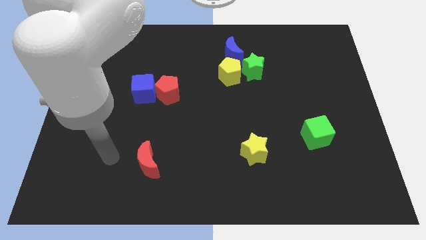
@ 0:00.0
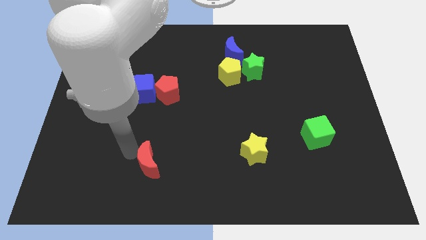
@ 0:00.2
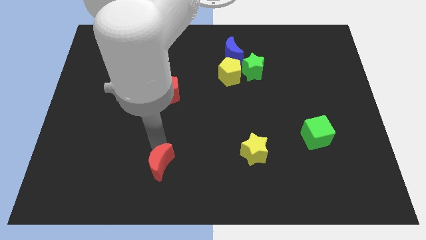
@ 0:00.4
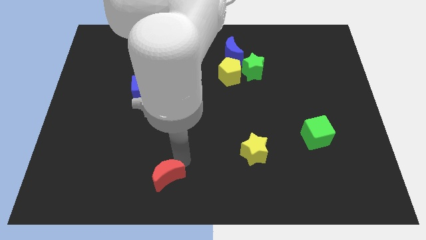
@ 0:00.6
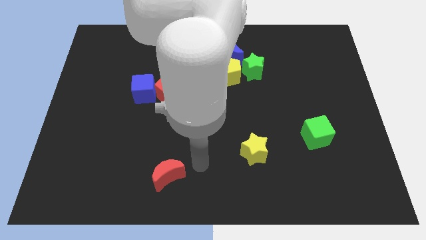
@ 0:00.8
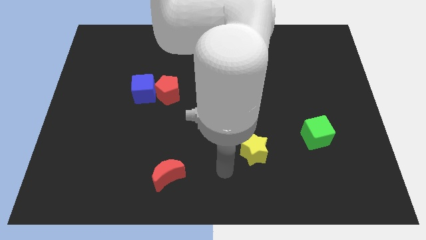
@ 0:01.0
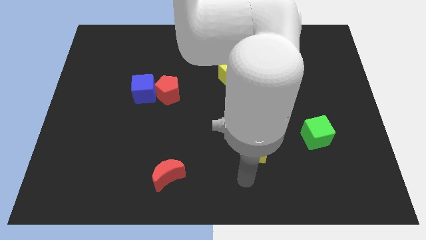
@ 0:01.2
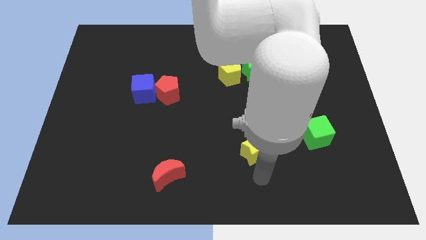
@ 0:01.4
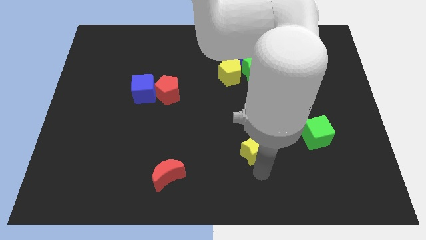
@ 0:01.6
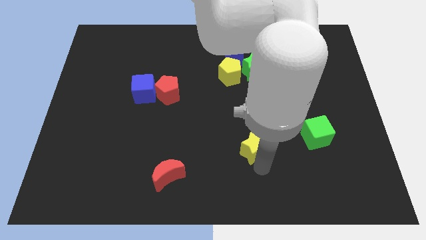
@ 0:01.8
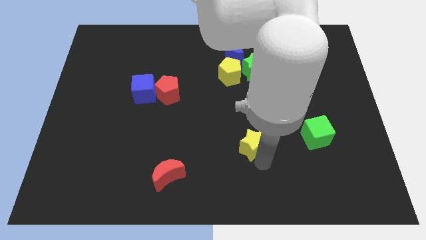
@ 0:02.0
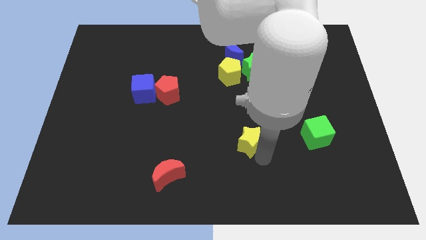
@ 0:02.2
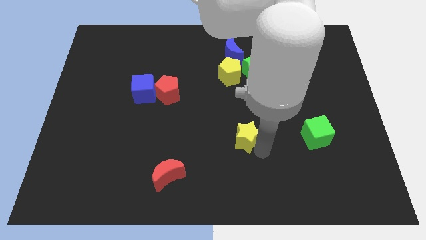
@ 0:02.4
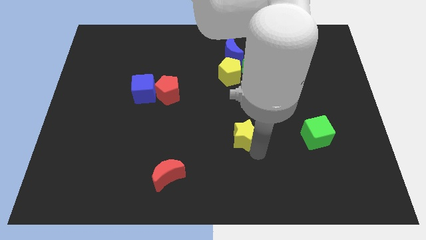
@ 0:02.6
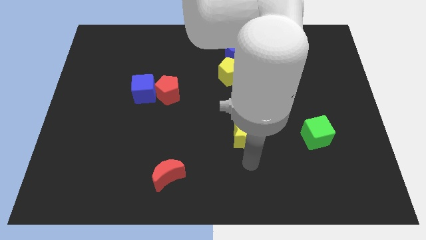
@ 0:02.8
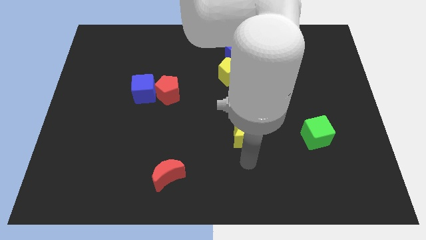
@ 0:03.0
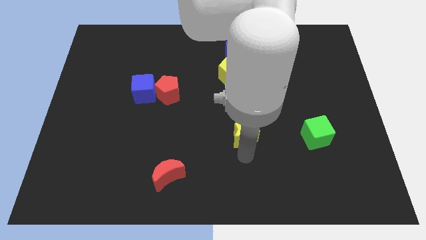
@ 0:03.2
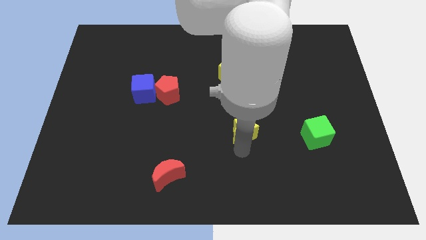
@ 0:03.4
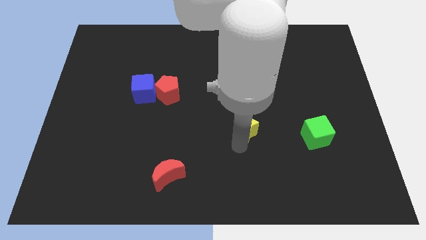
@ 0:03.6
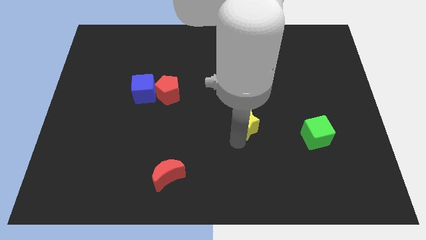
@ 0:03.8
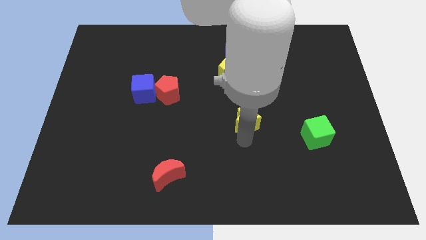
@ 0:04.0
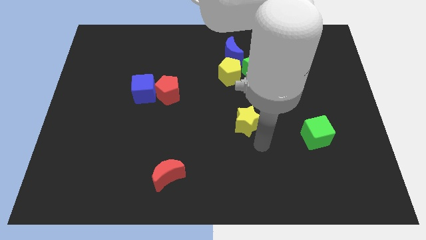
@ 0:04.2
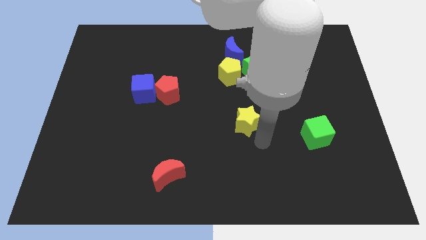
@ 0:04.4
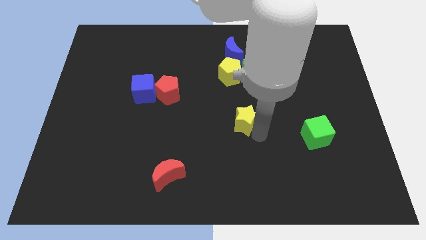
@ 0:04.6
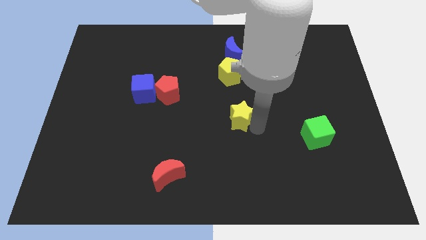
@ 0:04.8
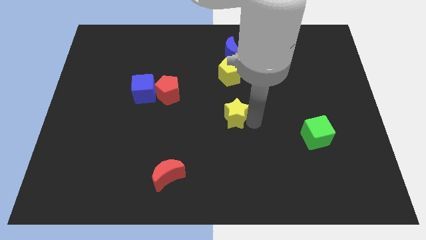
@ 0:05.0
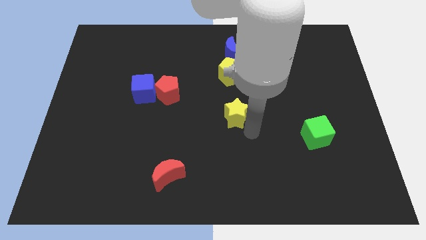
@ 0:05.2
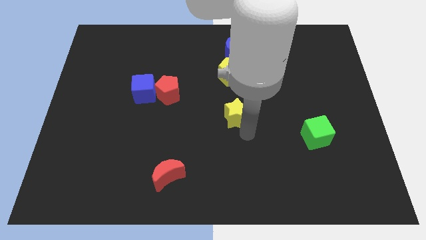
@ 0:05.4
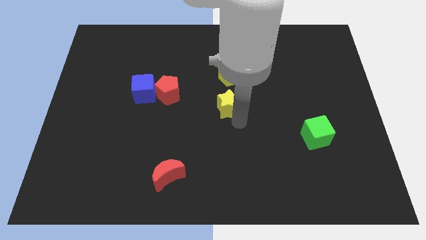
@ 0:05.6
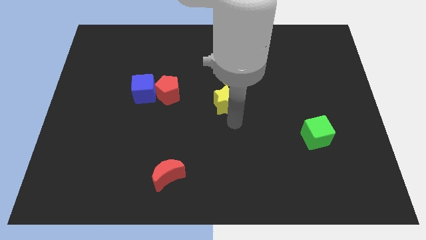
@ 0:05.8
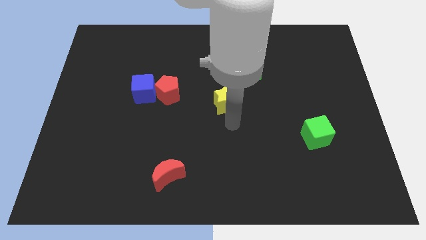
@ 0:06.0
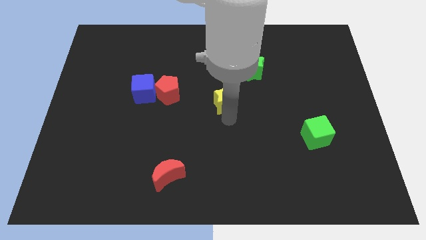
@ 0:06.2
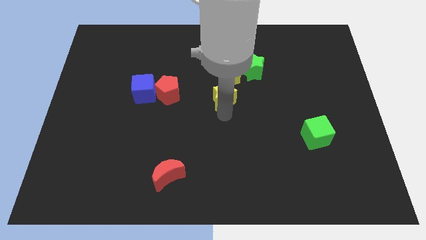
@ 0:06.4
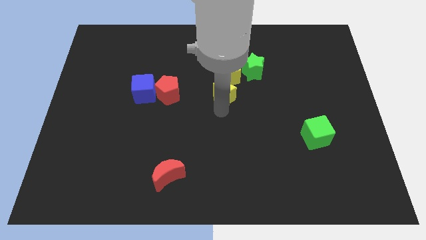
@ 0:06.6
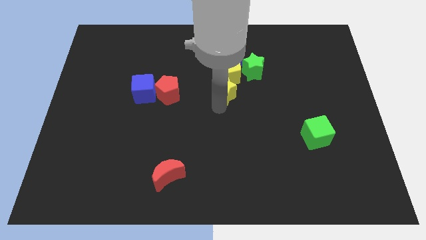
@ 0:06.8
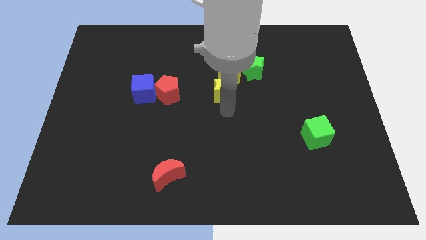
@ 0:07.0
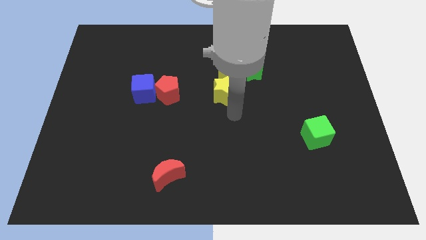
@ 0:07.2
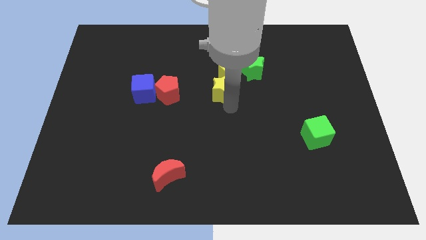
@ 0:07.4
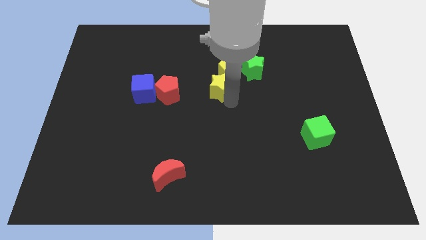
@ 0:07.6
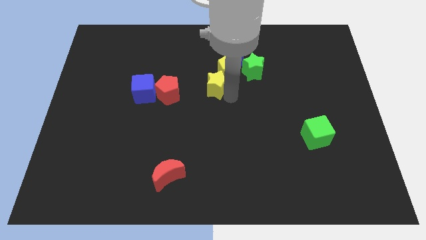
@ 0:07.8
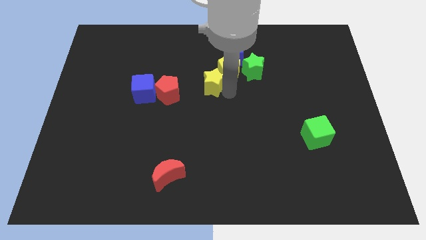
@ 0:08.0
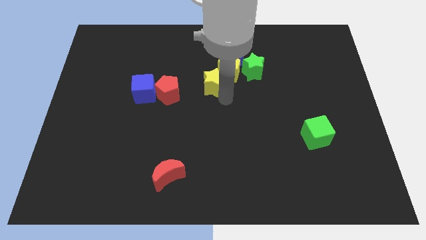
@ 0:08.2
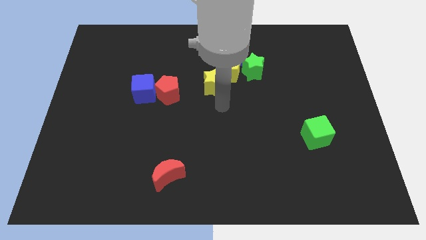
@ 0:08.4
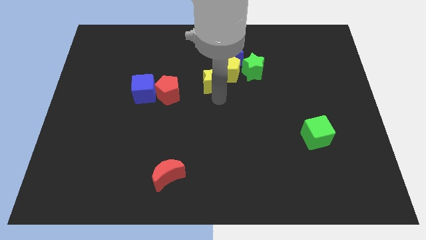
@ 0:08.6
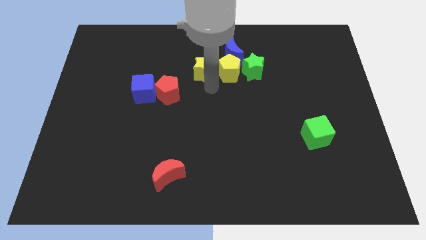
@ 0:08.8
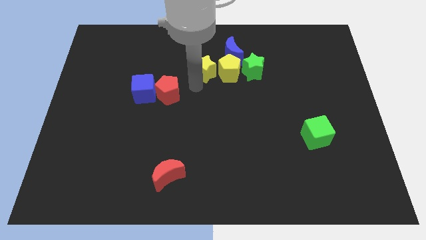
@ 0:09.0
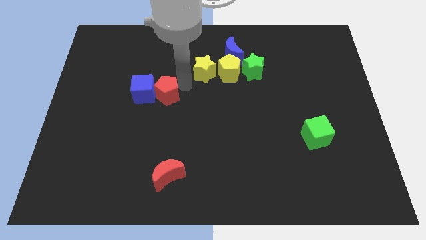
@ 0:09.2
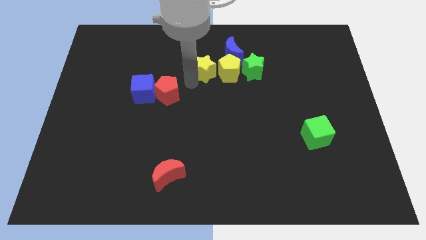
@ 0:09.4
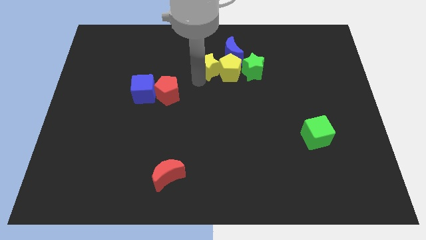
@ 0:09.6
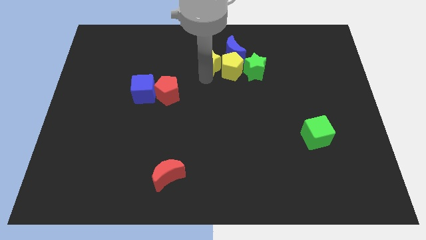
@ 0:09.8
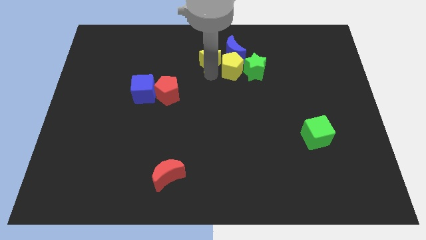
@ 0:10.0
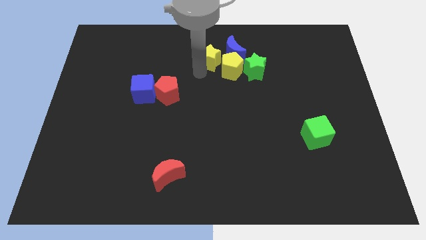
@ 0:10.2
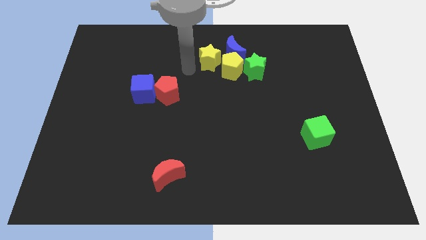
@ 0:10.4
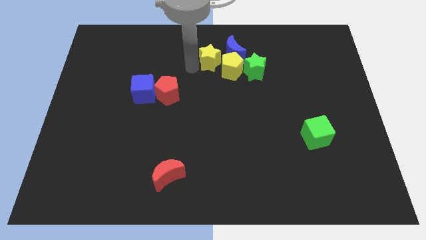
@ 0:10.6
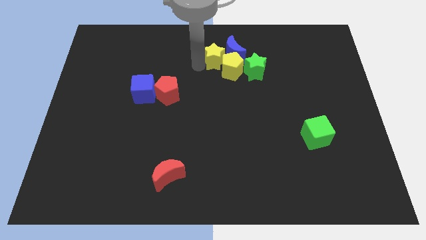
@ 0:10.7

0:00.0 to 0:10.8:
slide the yellow star towards the blue moon

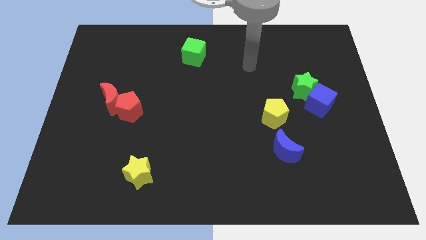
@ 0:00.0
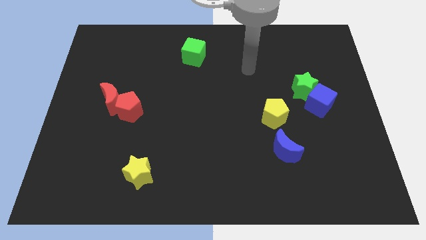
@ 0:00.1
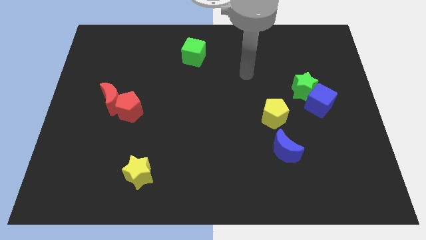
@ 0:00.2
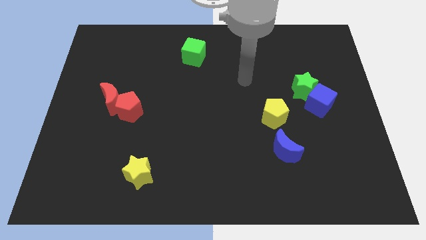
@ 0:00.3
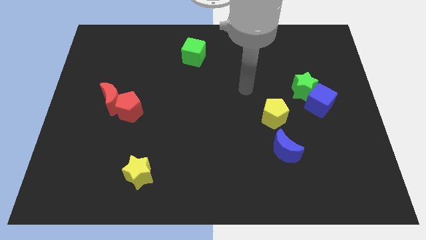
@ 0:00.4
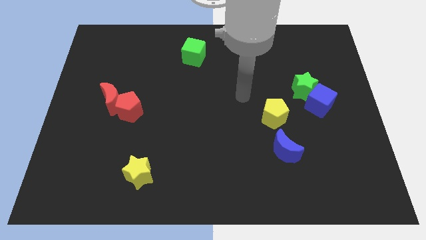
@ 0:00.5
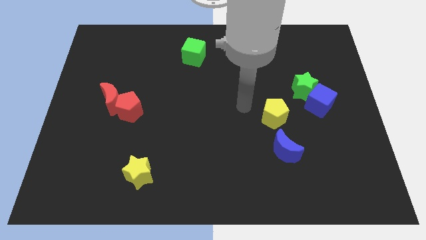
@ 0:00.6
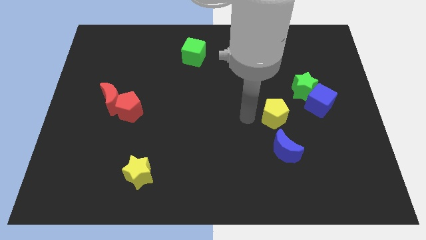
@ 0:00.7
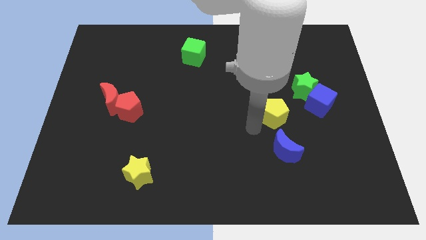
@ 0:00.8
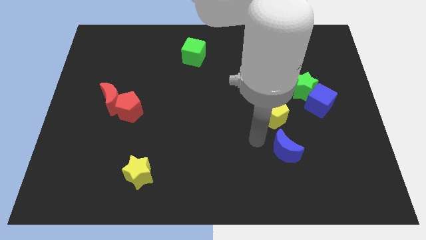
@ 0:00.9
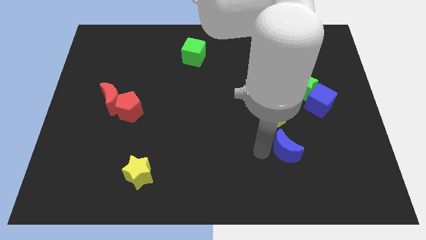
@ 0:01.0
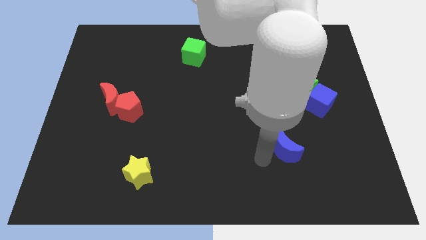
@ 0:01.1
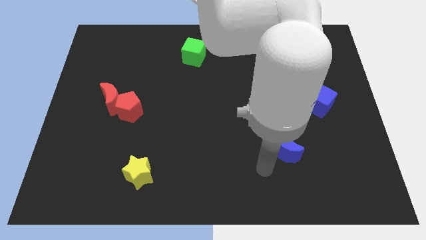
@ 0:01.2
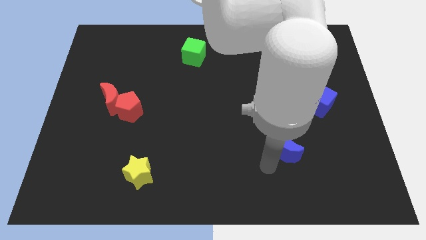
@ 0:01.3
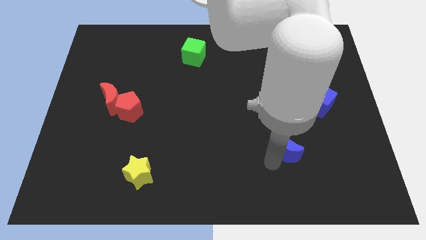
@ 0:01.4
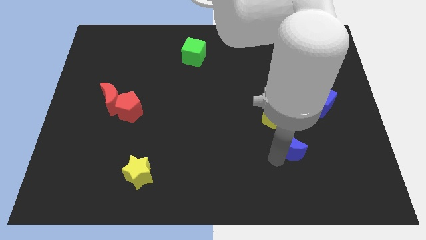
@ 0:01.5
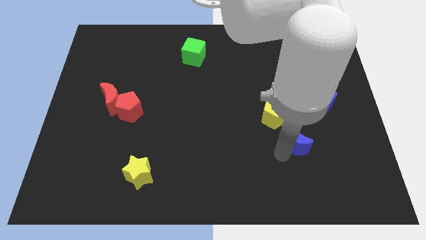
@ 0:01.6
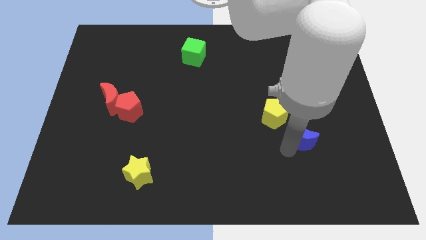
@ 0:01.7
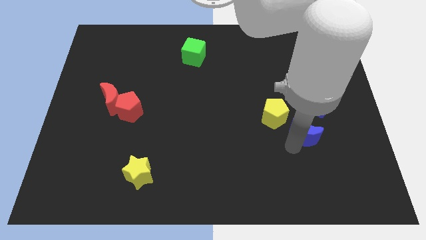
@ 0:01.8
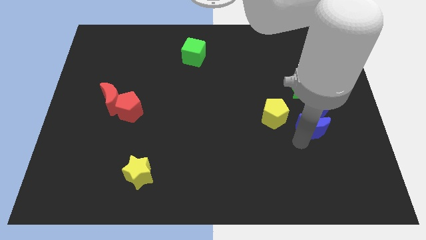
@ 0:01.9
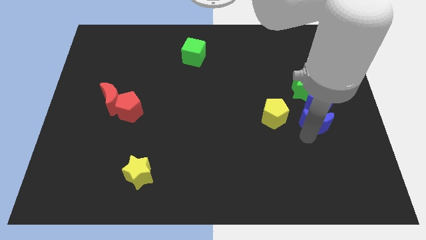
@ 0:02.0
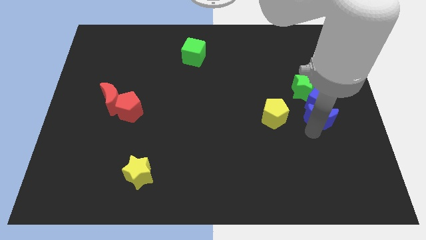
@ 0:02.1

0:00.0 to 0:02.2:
push the blue moon towards the blue cube
